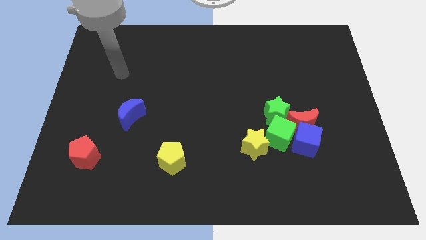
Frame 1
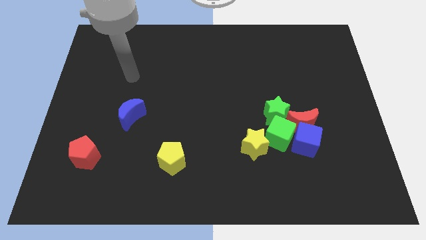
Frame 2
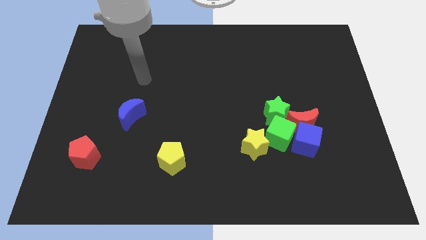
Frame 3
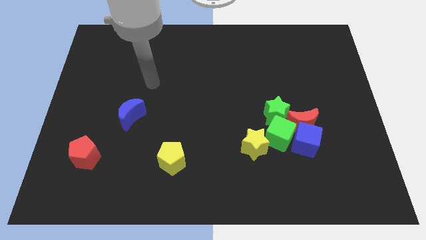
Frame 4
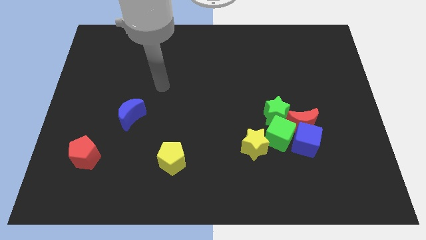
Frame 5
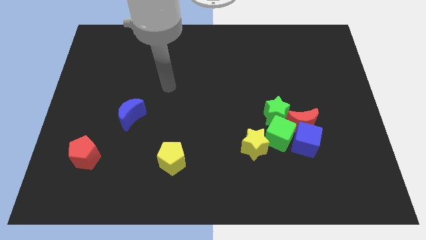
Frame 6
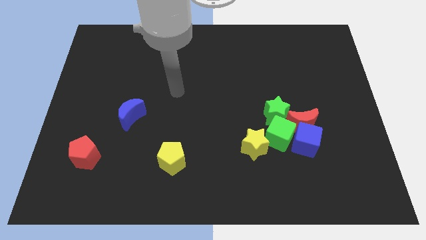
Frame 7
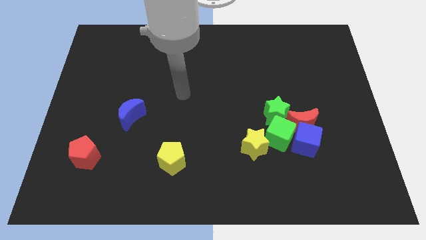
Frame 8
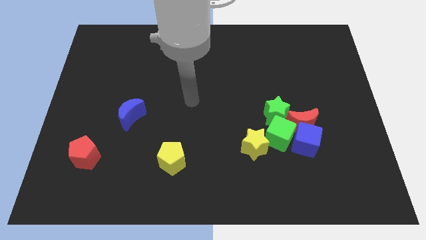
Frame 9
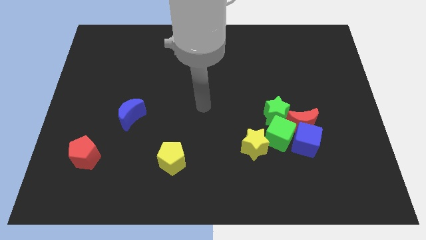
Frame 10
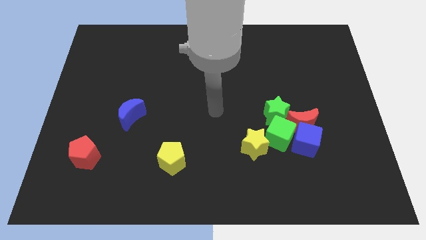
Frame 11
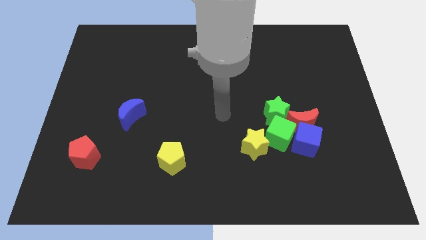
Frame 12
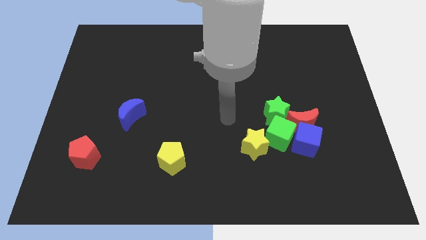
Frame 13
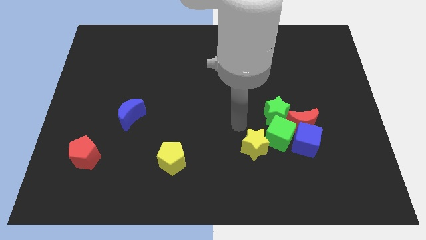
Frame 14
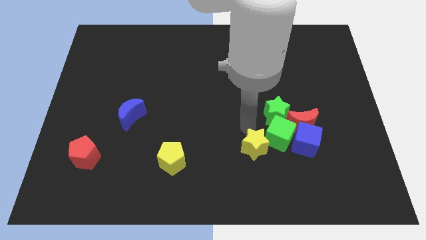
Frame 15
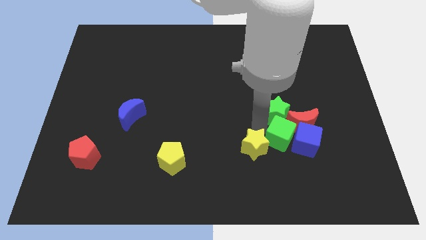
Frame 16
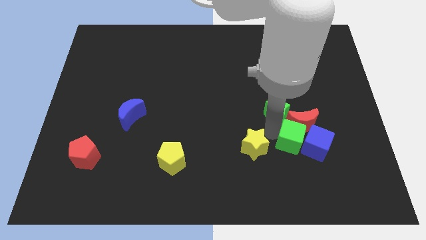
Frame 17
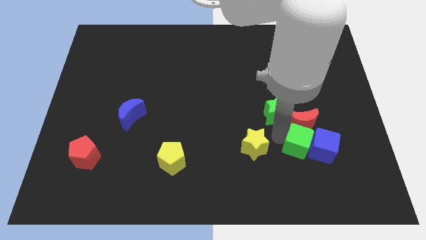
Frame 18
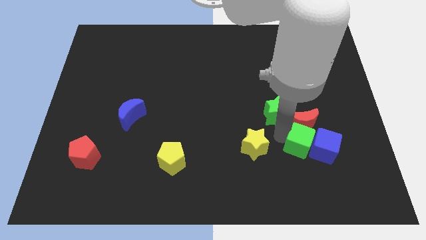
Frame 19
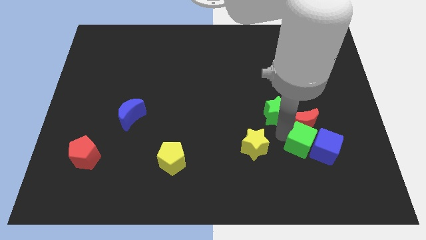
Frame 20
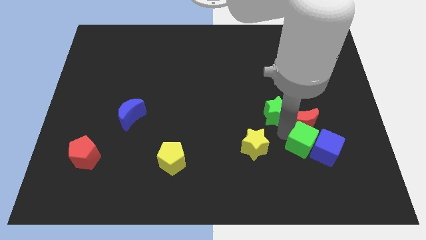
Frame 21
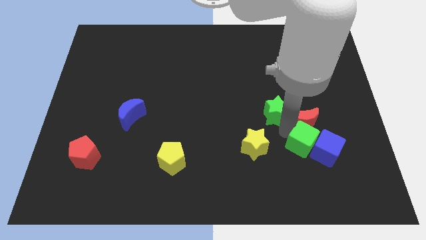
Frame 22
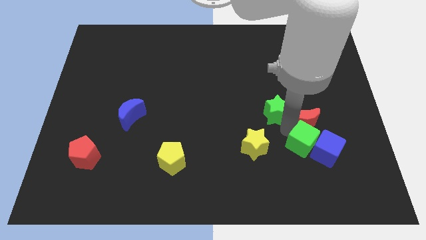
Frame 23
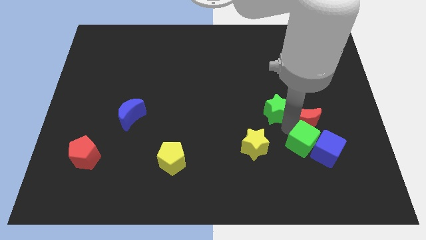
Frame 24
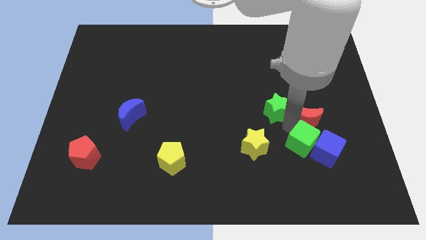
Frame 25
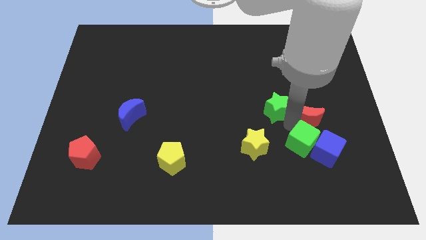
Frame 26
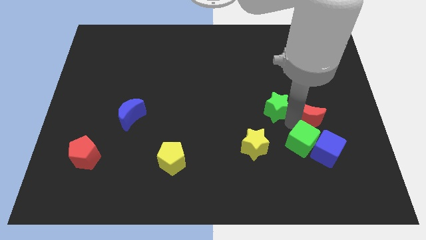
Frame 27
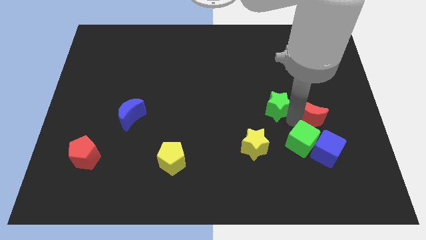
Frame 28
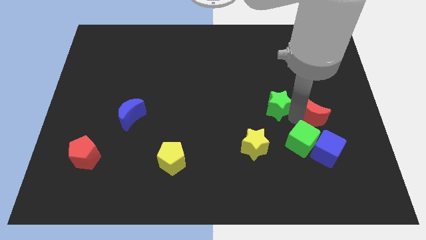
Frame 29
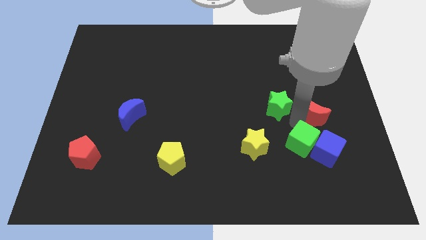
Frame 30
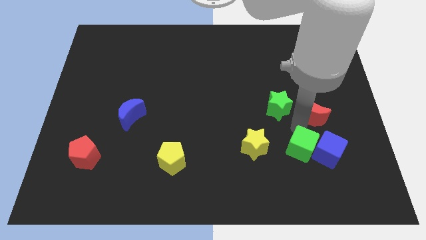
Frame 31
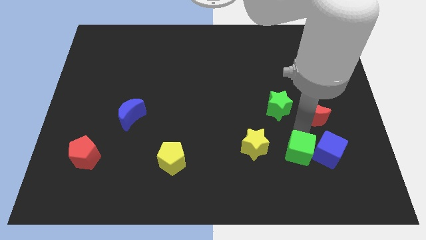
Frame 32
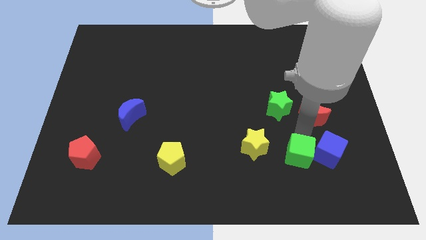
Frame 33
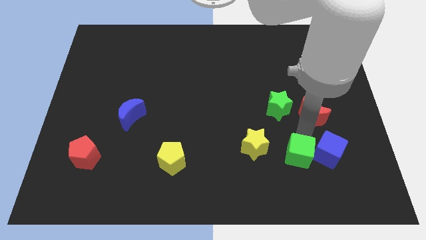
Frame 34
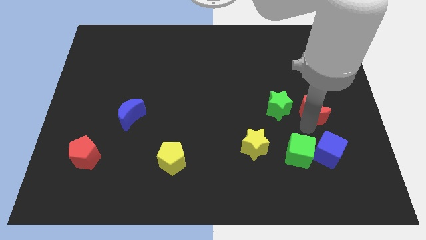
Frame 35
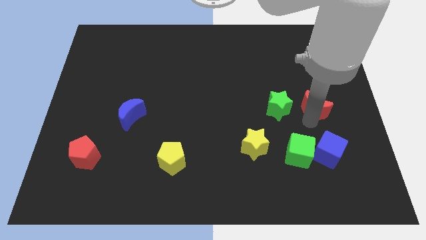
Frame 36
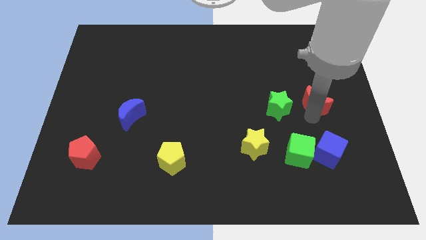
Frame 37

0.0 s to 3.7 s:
separate the red moon from the clump

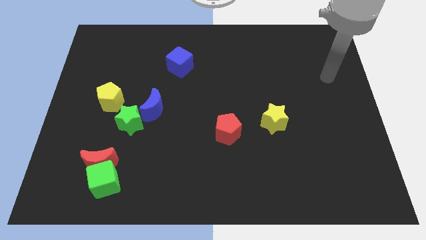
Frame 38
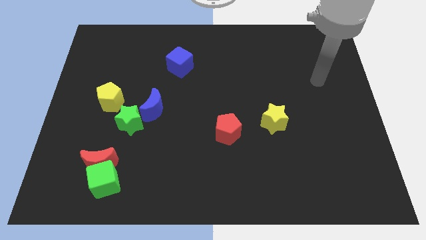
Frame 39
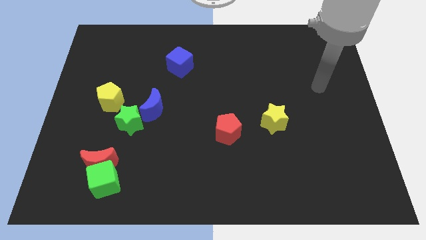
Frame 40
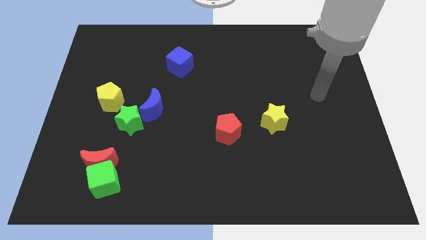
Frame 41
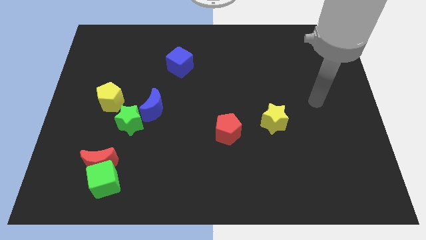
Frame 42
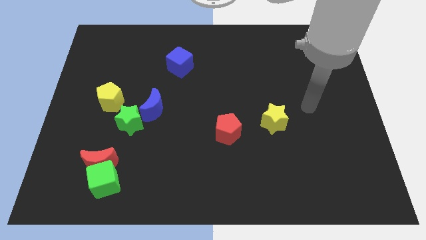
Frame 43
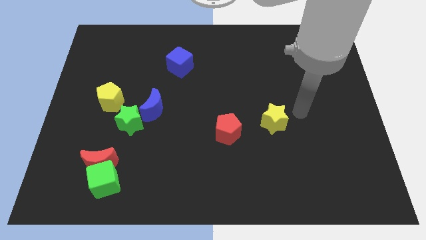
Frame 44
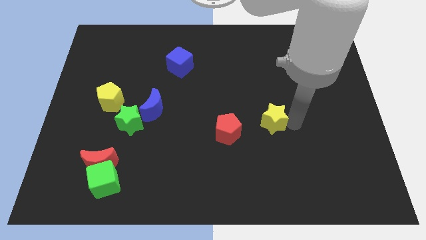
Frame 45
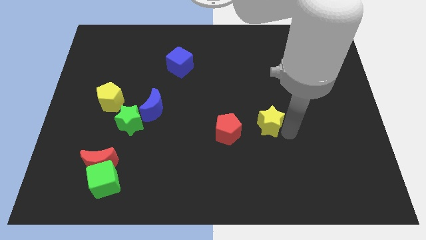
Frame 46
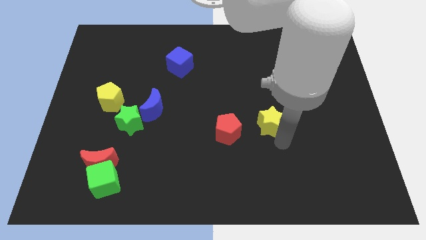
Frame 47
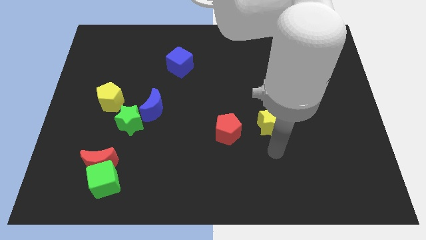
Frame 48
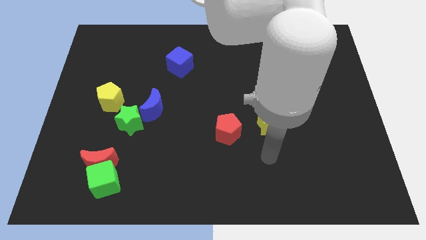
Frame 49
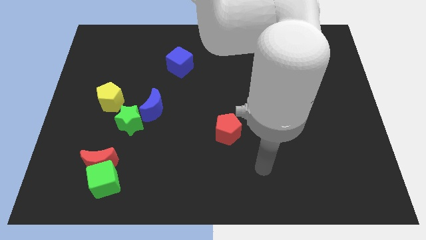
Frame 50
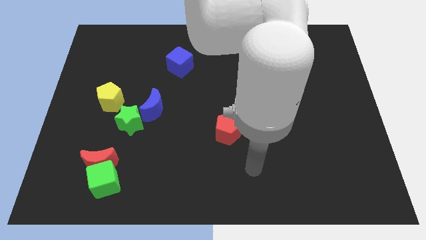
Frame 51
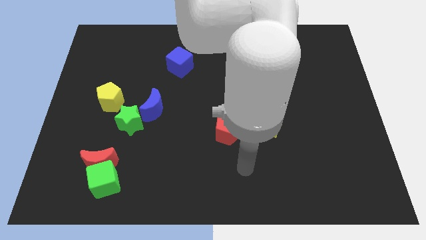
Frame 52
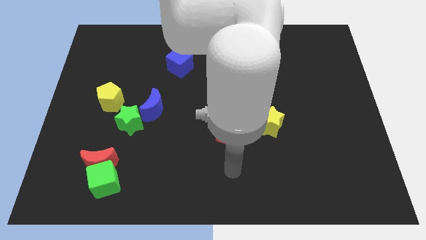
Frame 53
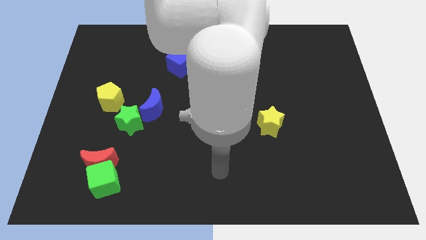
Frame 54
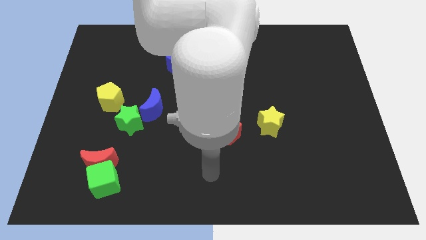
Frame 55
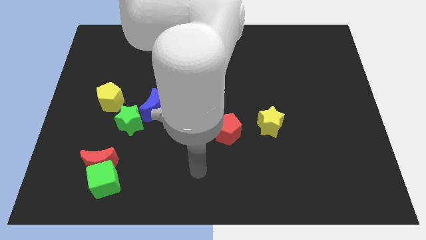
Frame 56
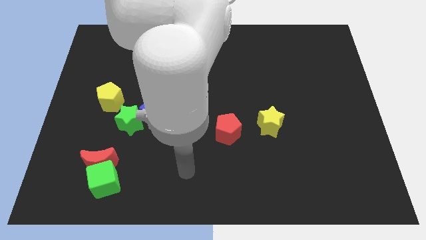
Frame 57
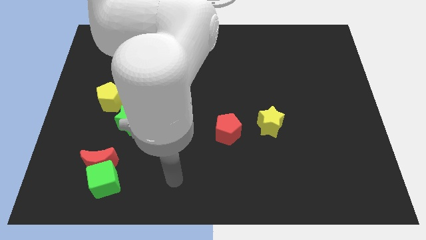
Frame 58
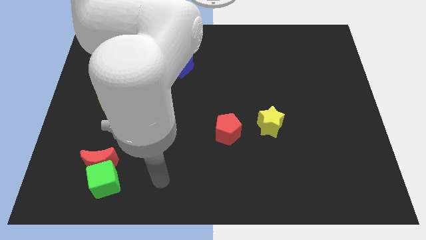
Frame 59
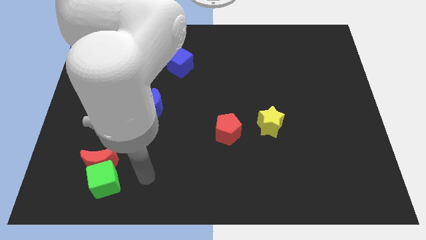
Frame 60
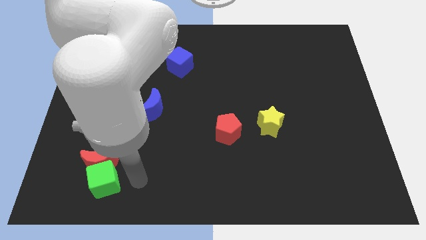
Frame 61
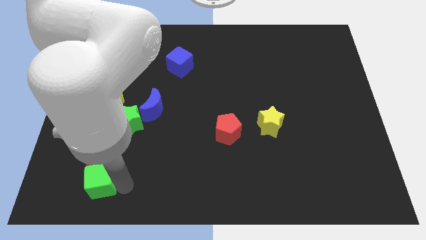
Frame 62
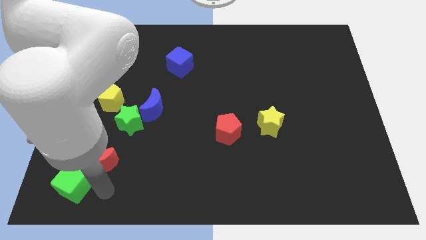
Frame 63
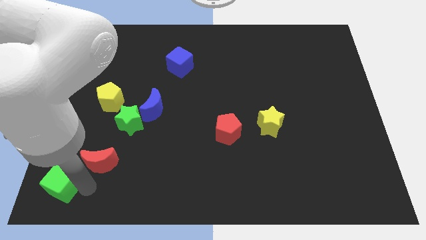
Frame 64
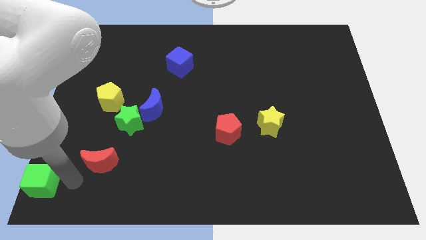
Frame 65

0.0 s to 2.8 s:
separate the red moon from the green cube

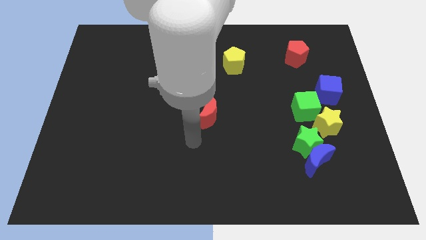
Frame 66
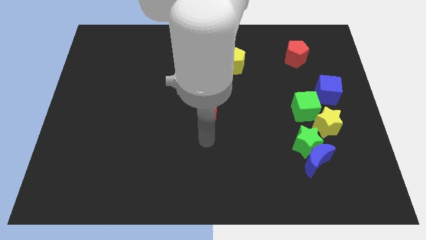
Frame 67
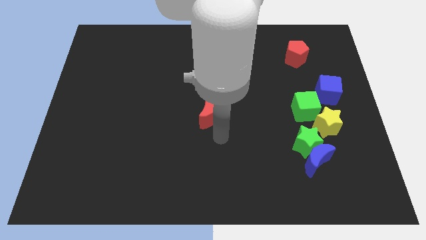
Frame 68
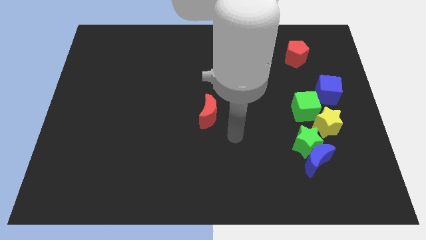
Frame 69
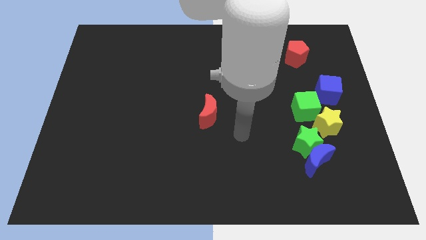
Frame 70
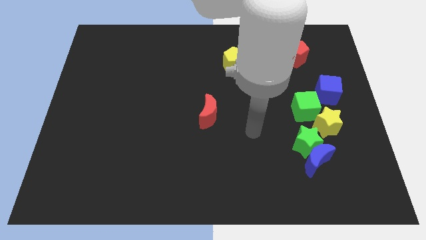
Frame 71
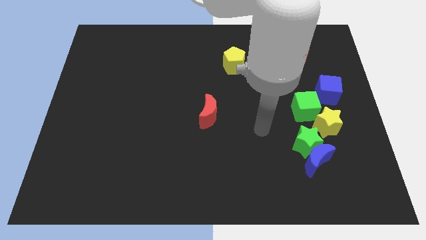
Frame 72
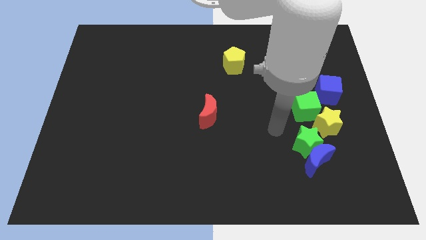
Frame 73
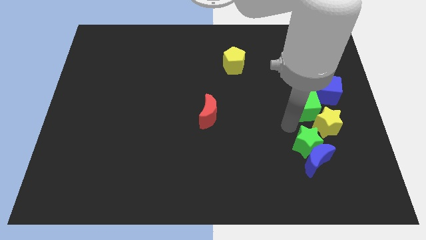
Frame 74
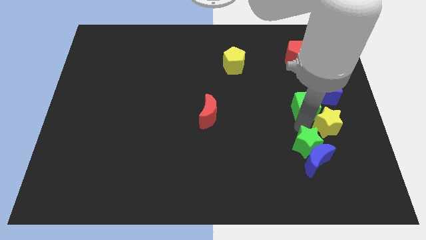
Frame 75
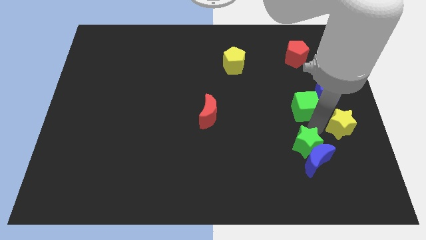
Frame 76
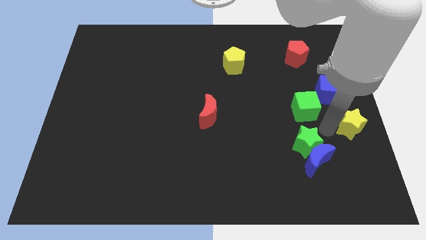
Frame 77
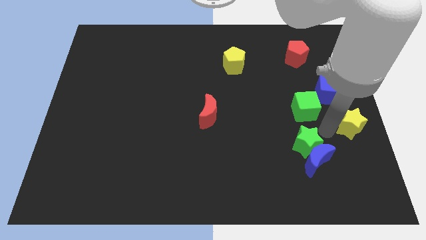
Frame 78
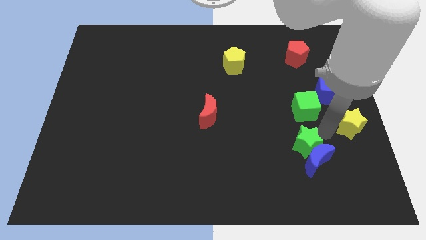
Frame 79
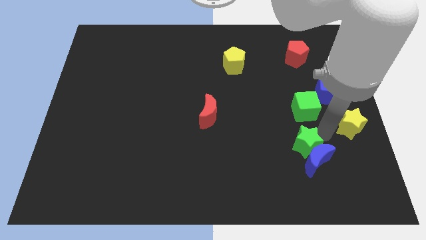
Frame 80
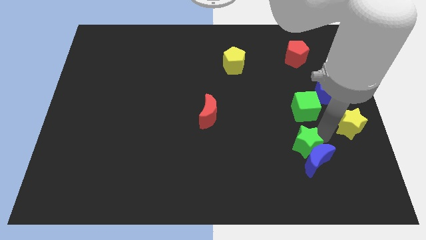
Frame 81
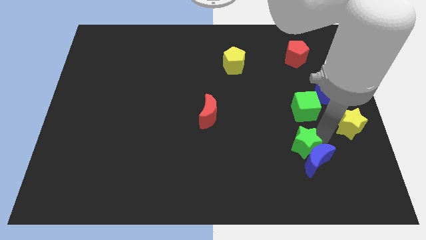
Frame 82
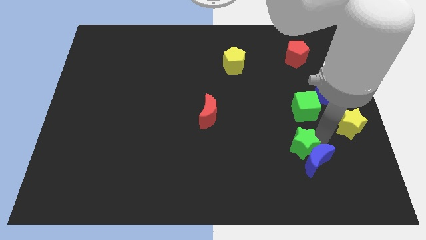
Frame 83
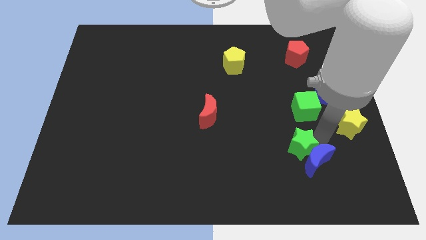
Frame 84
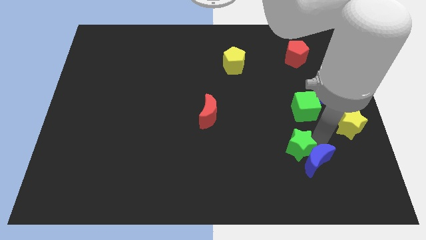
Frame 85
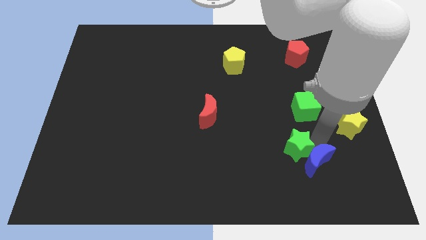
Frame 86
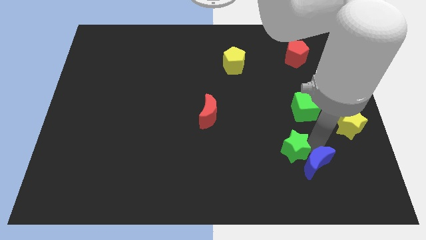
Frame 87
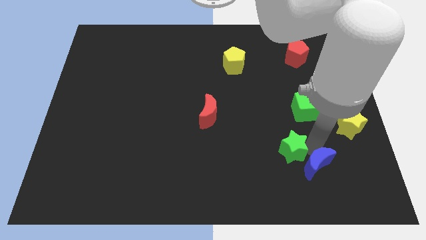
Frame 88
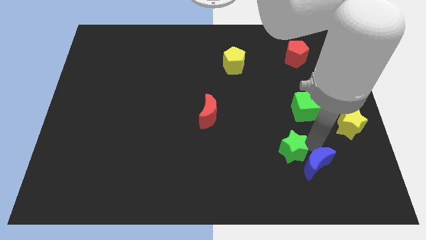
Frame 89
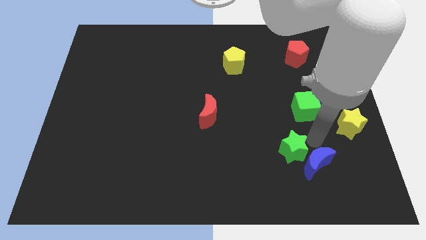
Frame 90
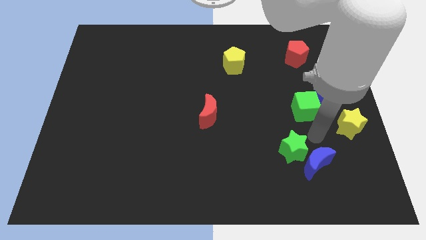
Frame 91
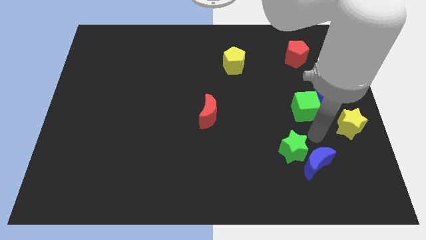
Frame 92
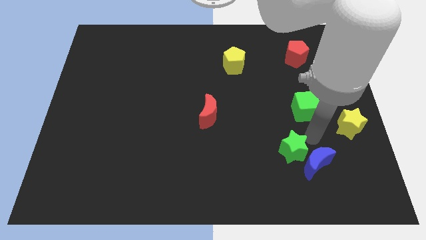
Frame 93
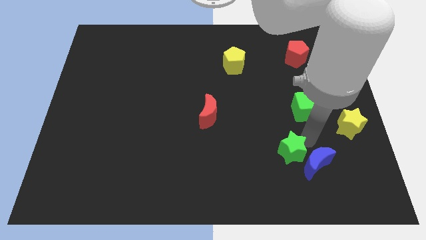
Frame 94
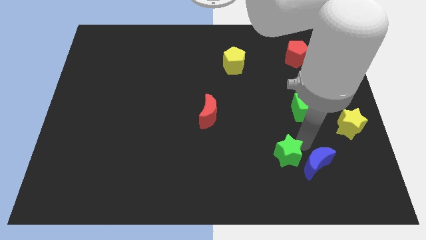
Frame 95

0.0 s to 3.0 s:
move the green star away from the blue moon, yellow star, and green cube
